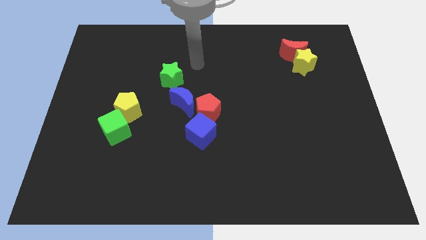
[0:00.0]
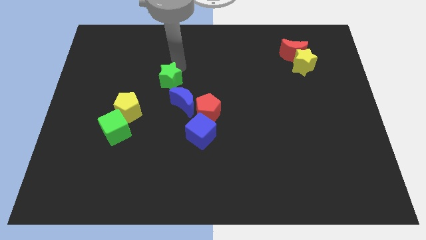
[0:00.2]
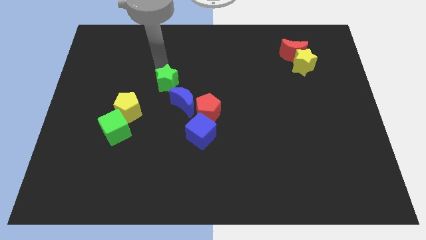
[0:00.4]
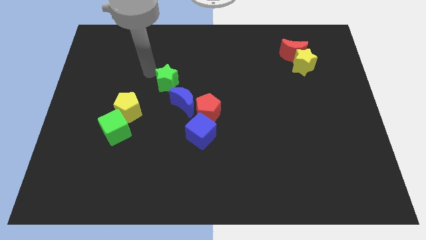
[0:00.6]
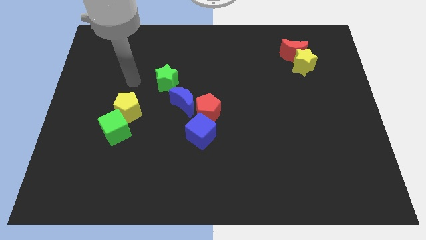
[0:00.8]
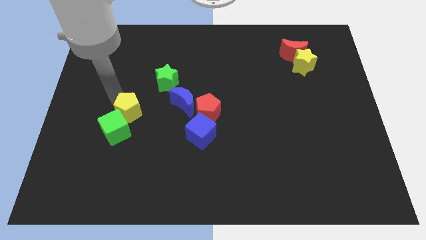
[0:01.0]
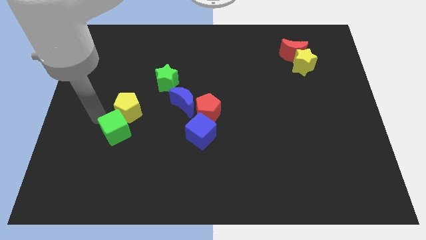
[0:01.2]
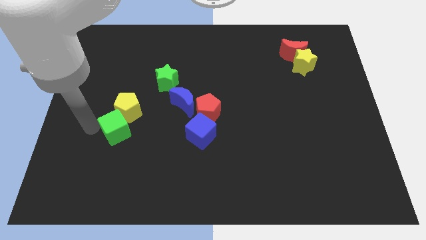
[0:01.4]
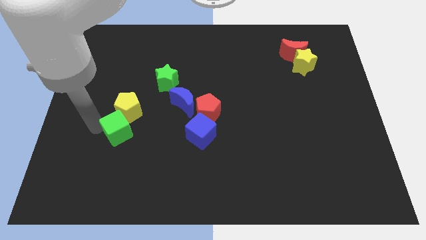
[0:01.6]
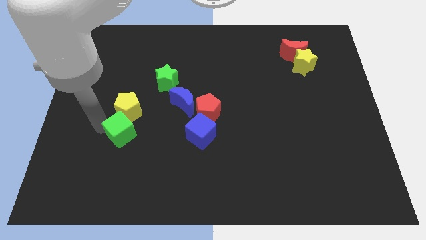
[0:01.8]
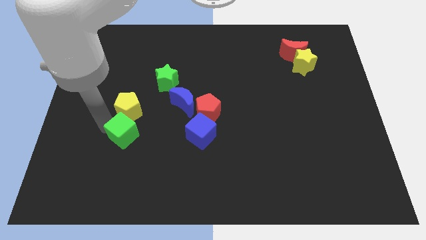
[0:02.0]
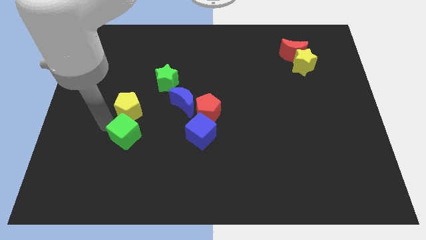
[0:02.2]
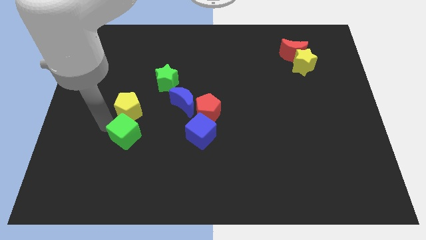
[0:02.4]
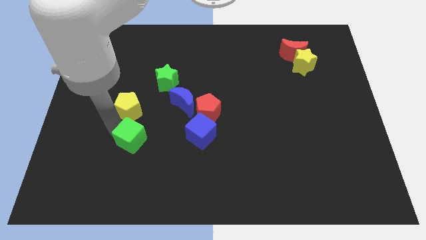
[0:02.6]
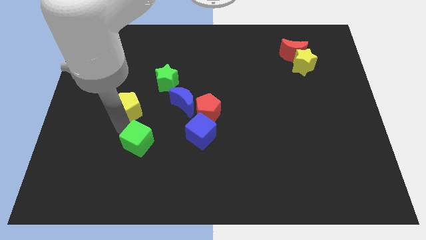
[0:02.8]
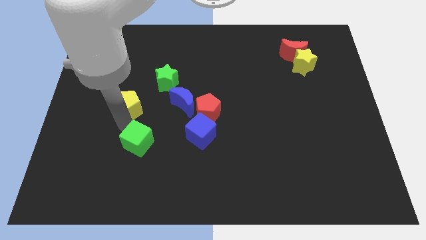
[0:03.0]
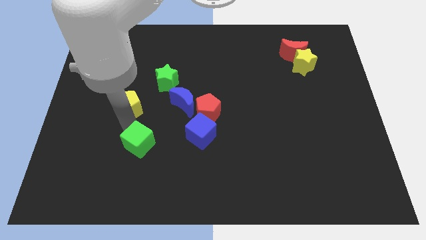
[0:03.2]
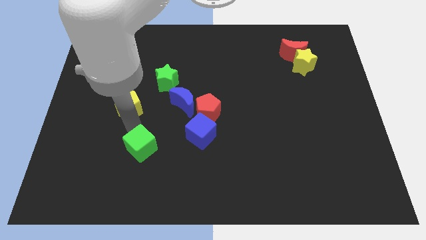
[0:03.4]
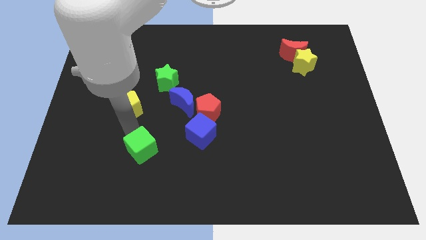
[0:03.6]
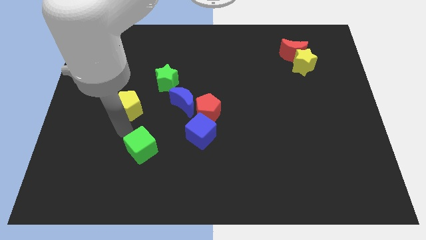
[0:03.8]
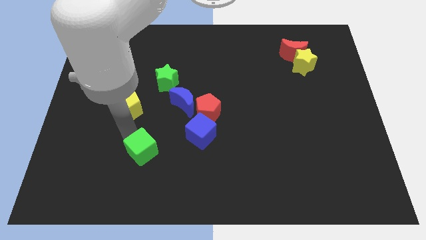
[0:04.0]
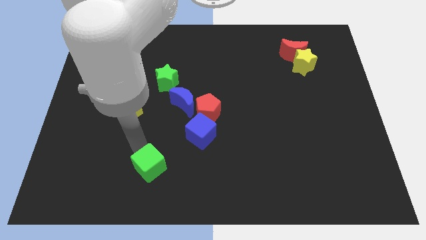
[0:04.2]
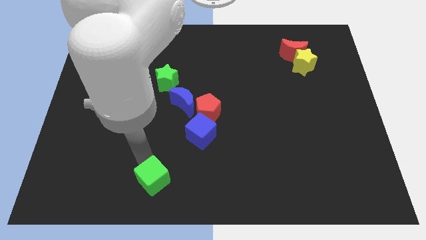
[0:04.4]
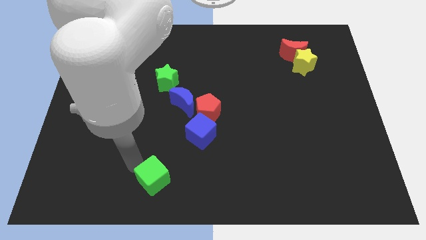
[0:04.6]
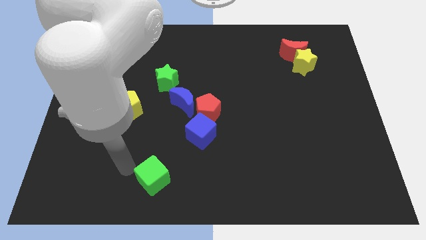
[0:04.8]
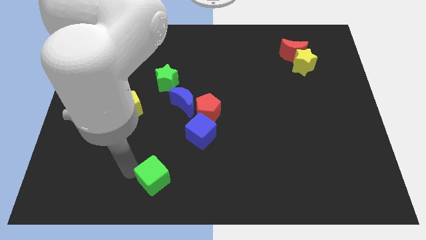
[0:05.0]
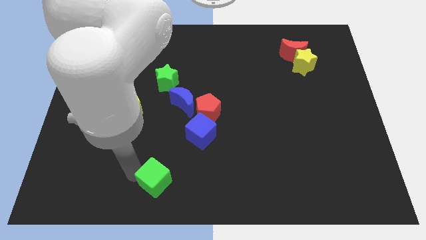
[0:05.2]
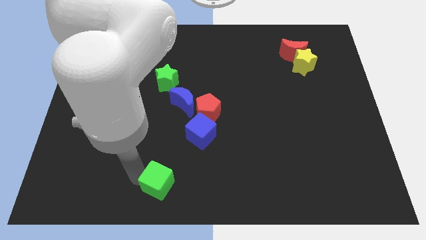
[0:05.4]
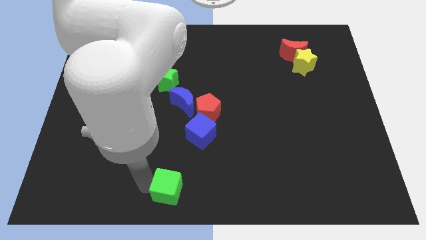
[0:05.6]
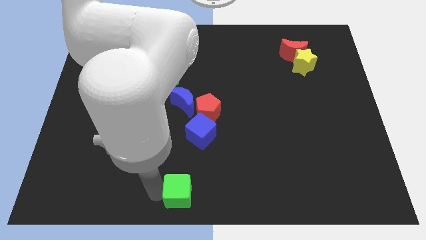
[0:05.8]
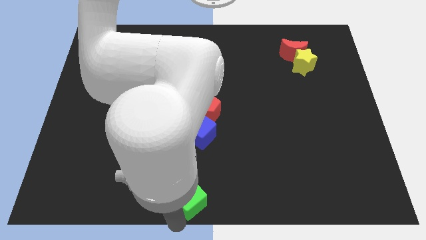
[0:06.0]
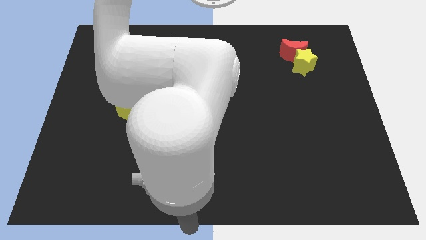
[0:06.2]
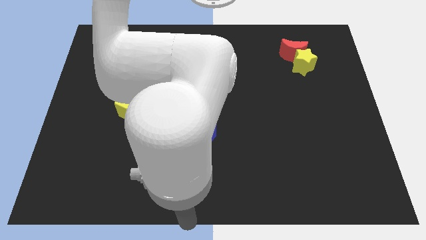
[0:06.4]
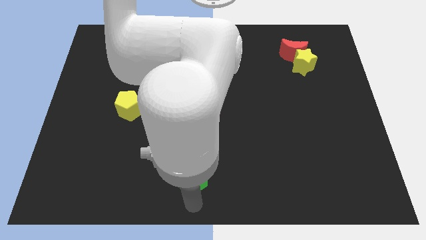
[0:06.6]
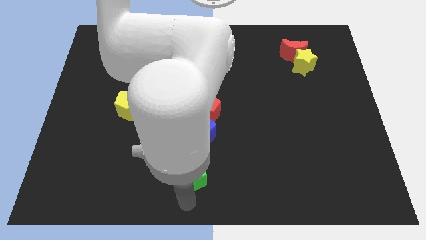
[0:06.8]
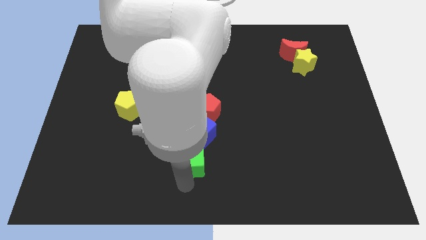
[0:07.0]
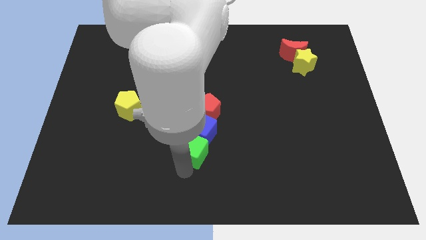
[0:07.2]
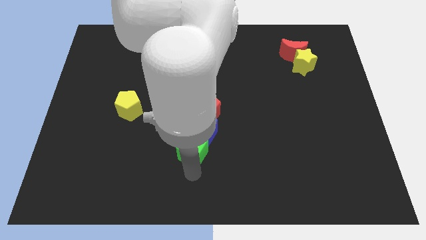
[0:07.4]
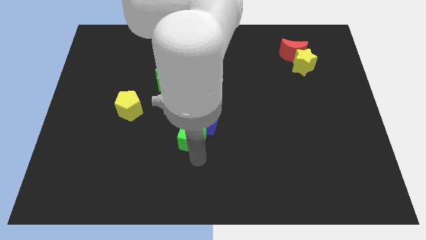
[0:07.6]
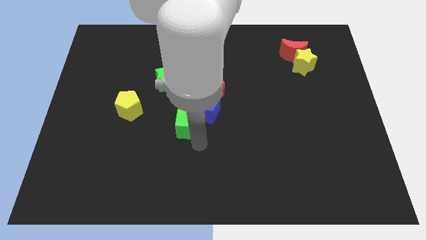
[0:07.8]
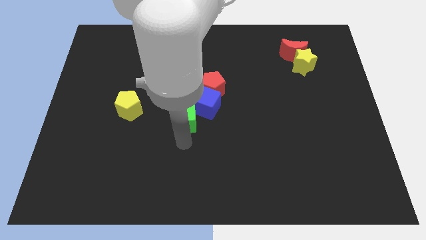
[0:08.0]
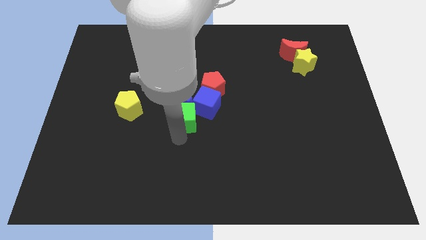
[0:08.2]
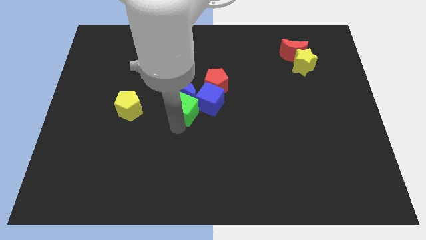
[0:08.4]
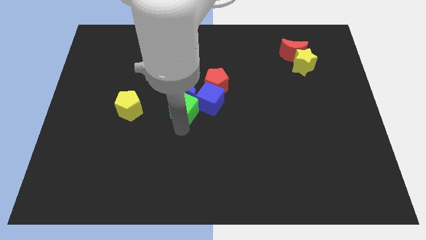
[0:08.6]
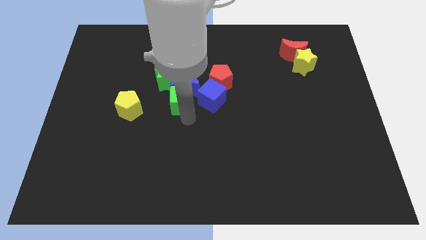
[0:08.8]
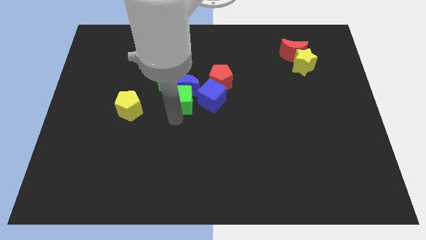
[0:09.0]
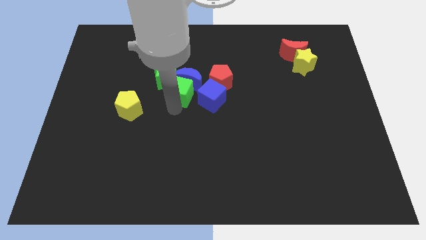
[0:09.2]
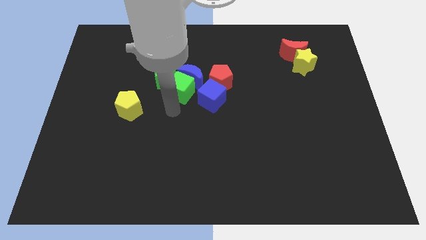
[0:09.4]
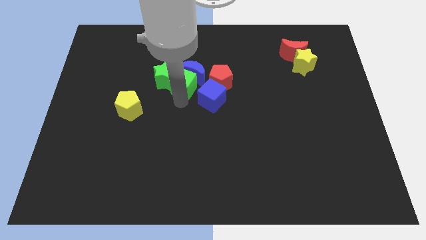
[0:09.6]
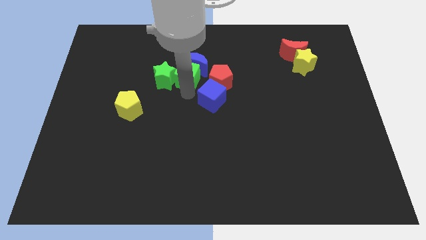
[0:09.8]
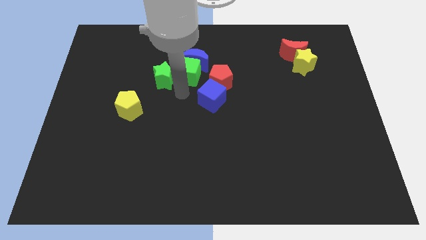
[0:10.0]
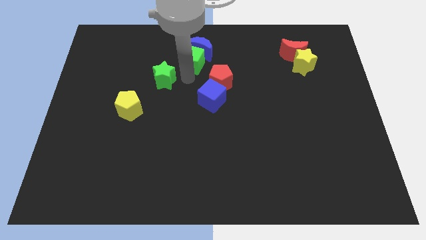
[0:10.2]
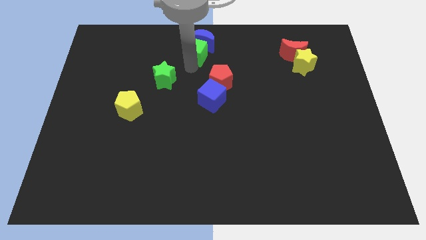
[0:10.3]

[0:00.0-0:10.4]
push the green cube to the towards your base

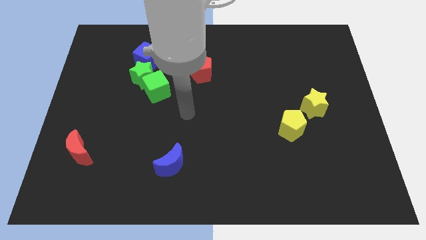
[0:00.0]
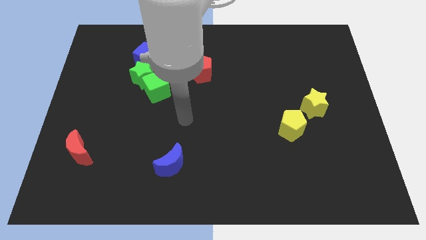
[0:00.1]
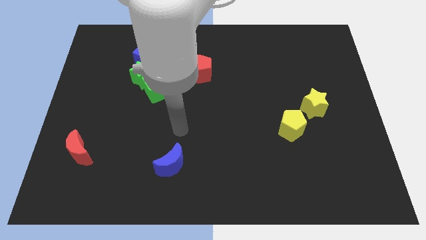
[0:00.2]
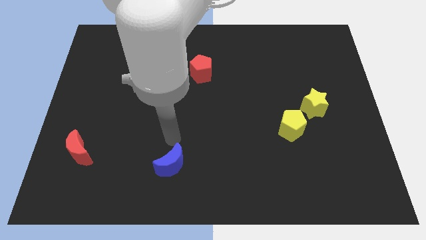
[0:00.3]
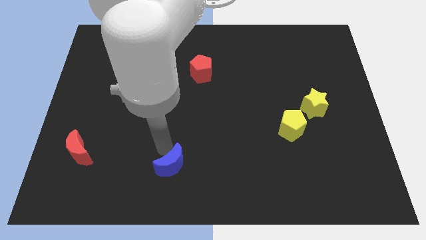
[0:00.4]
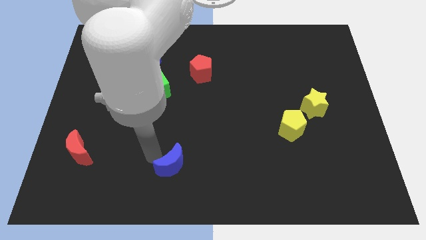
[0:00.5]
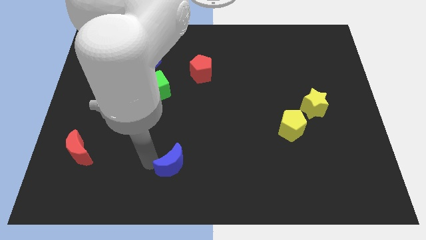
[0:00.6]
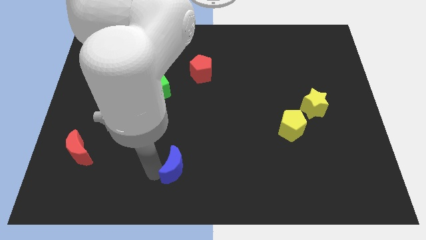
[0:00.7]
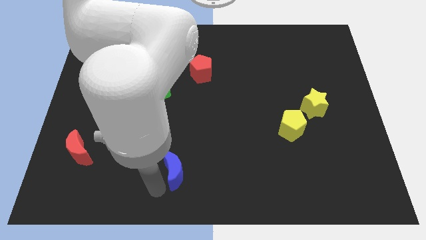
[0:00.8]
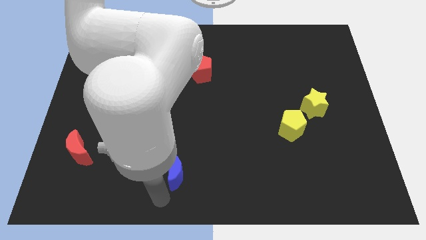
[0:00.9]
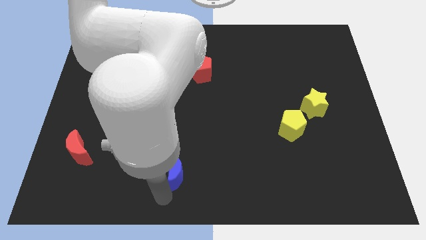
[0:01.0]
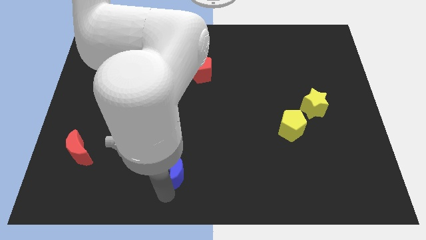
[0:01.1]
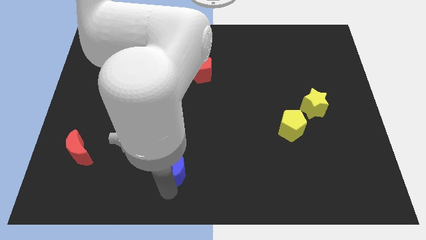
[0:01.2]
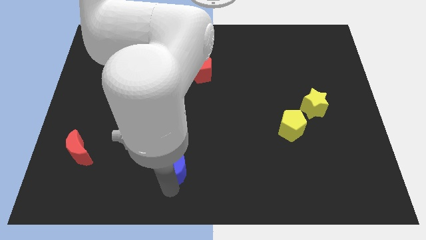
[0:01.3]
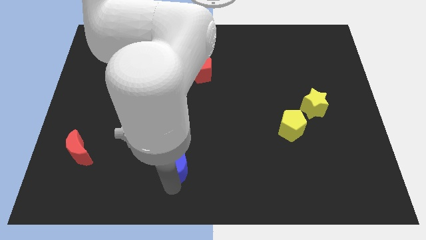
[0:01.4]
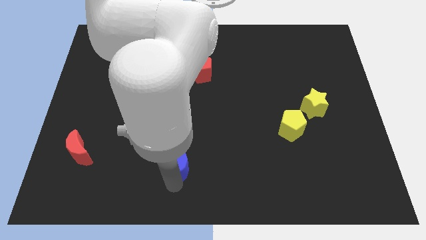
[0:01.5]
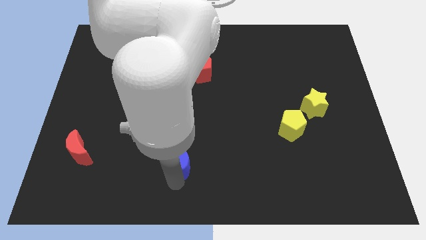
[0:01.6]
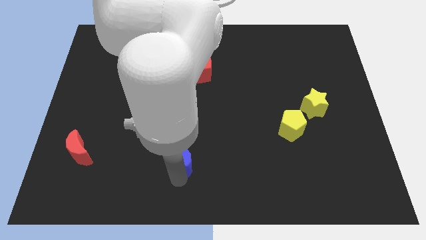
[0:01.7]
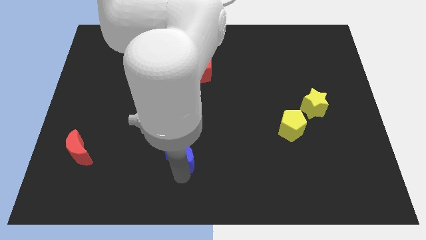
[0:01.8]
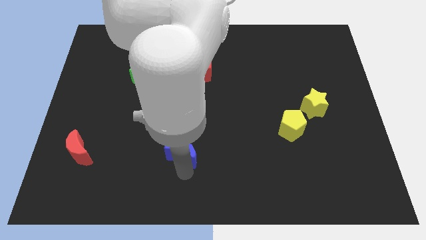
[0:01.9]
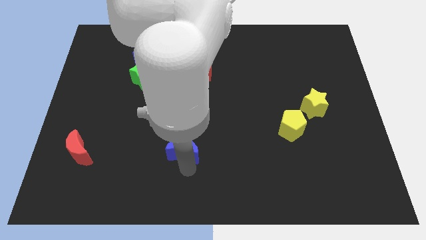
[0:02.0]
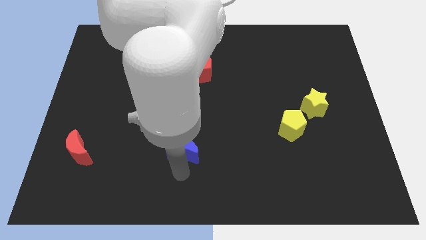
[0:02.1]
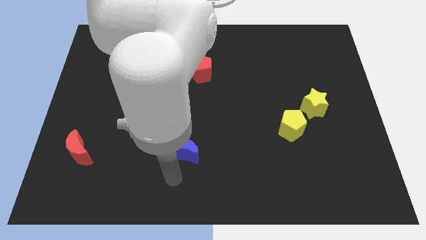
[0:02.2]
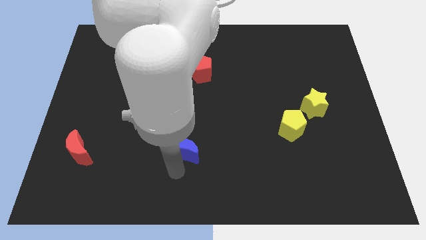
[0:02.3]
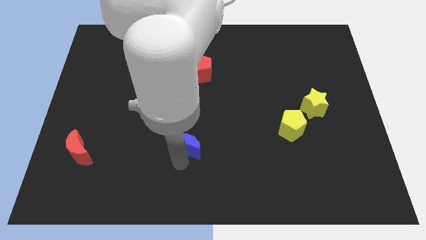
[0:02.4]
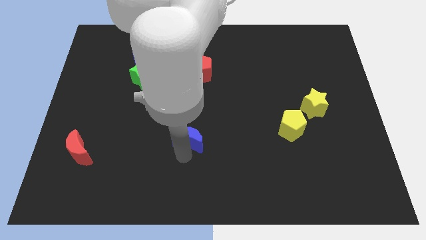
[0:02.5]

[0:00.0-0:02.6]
put the blue moon to the middle
